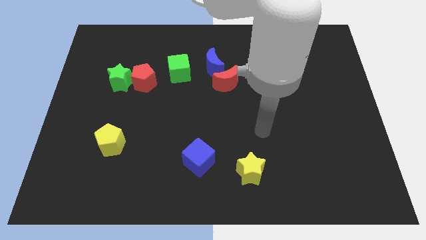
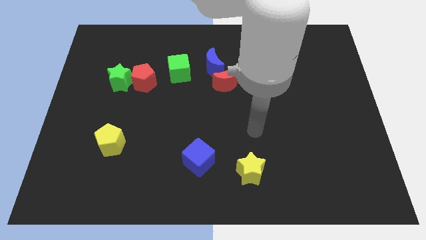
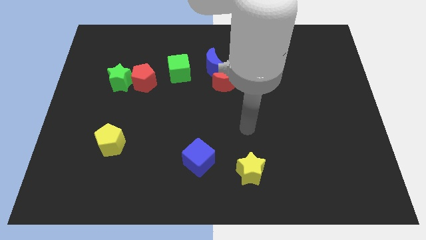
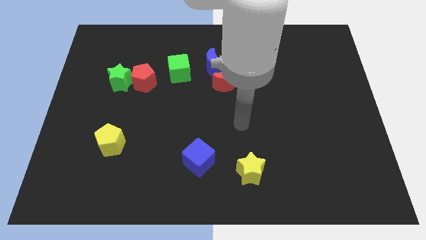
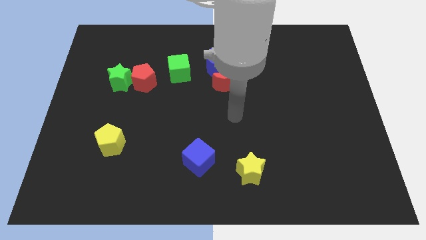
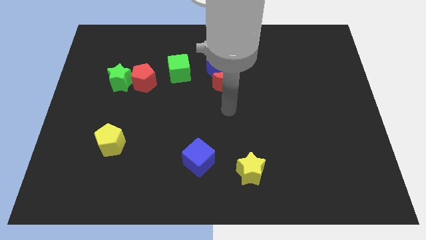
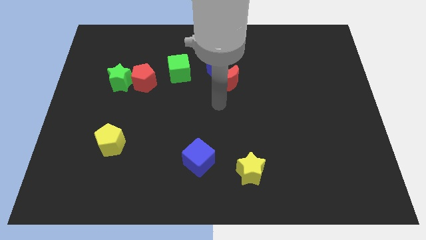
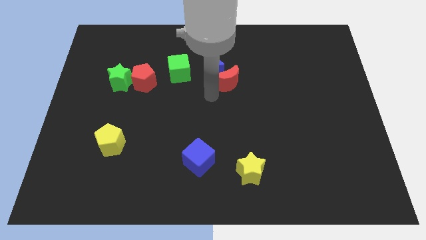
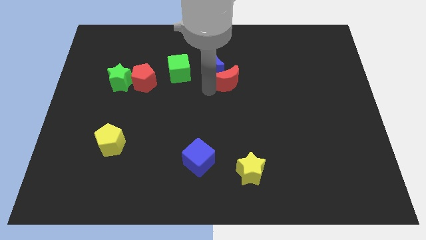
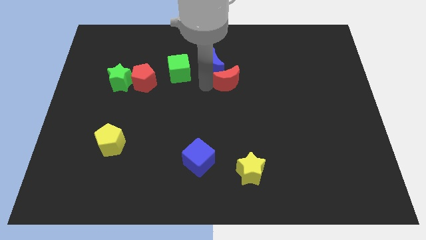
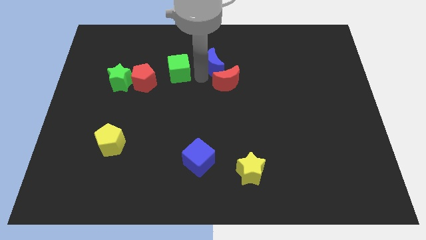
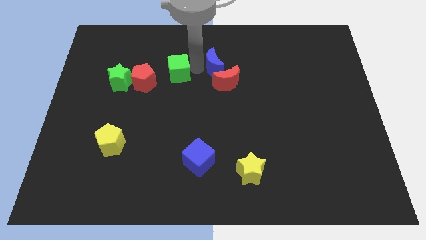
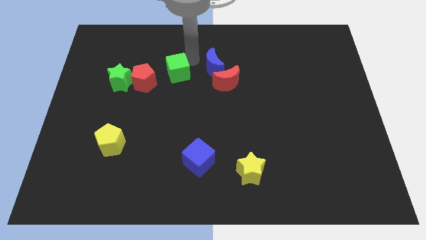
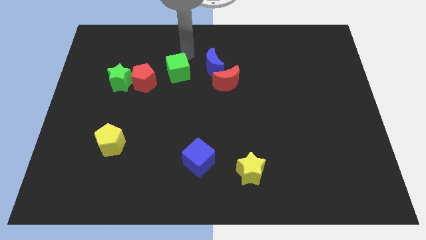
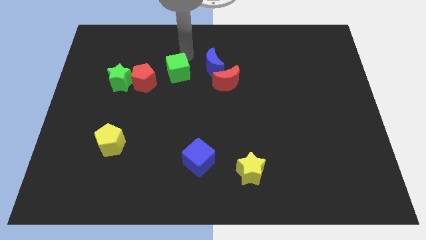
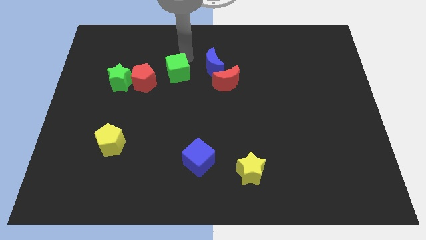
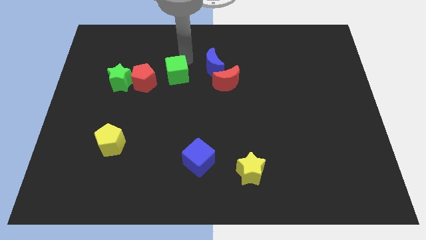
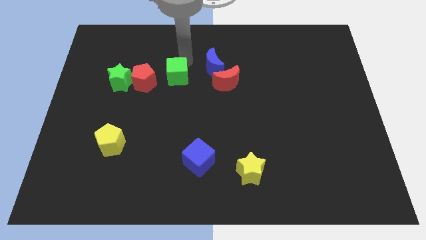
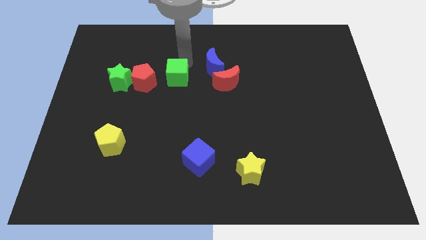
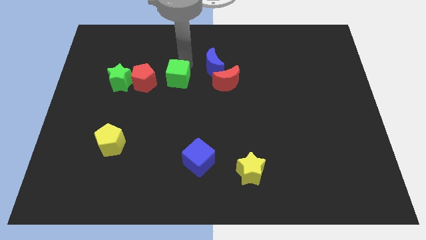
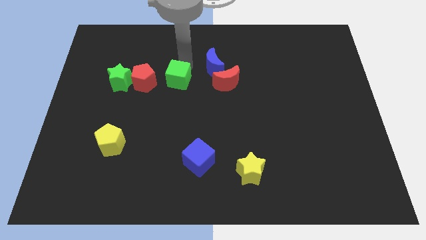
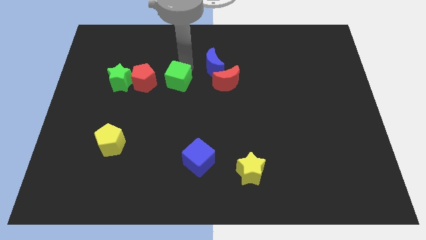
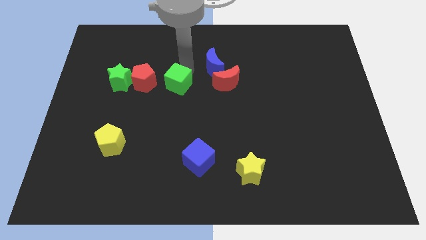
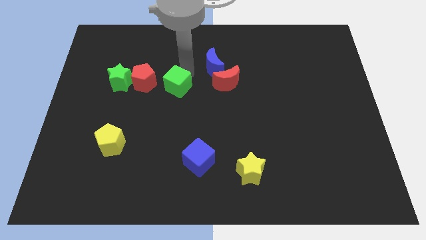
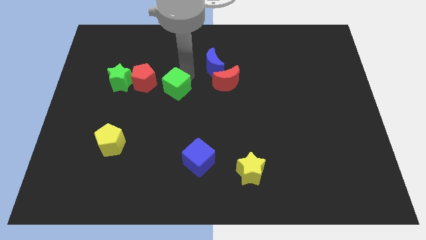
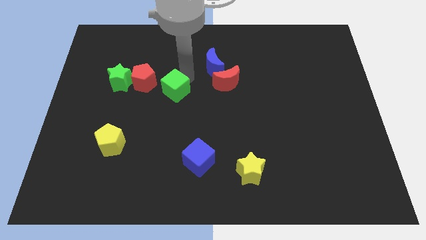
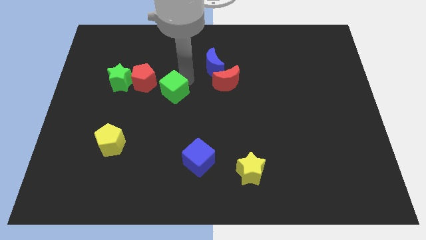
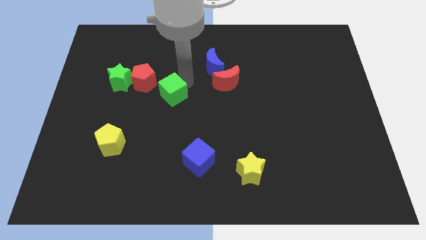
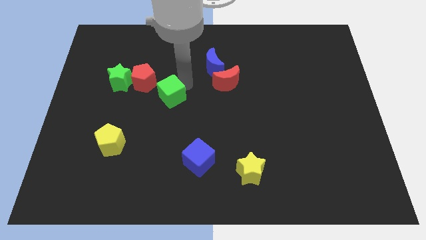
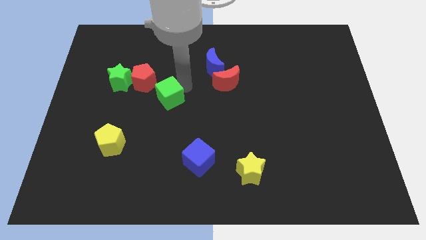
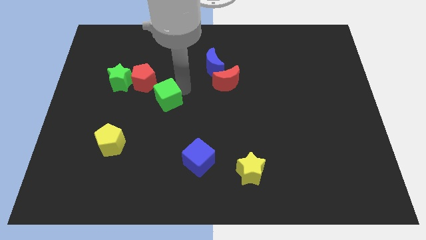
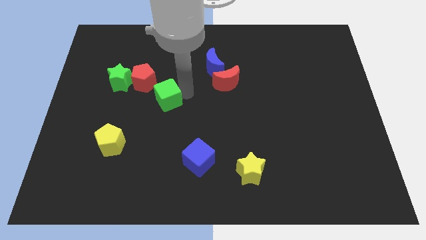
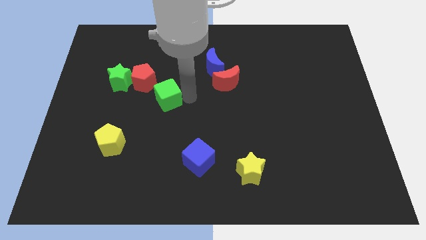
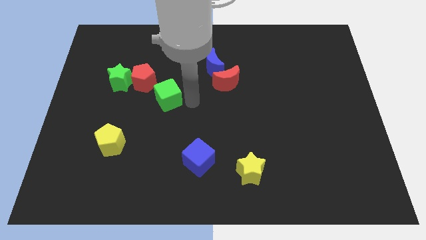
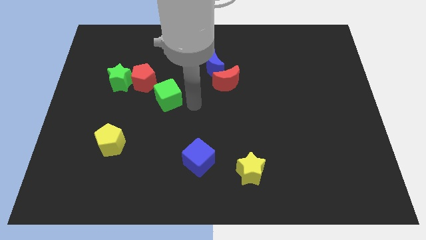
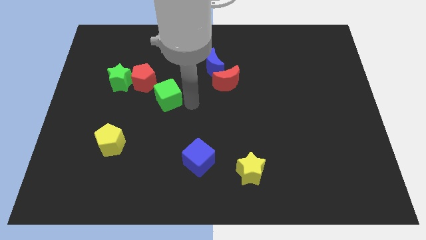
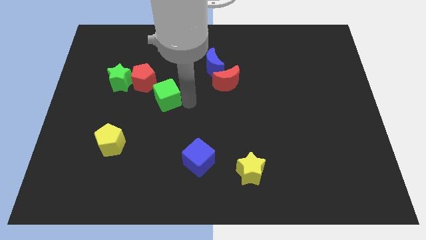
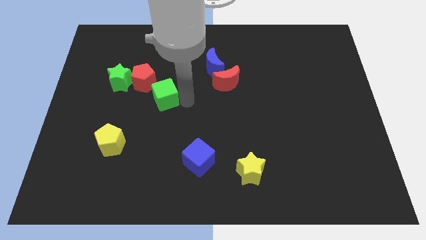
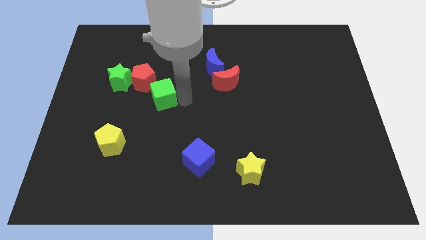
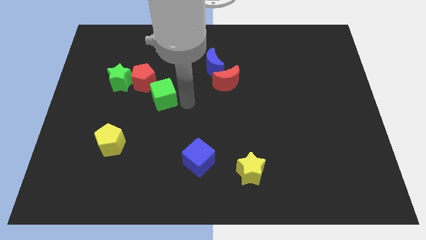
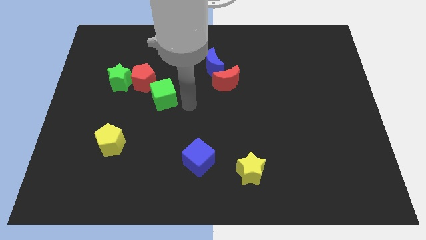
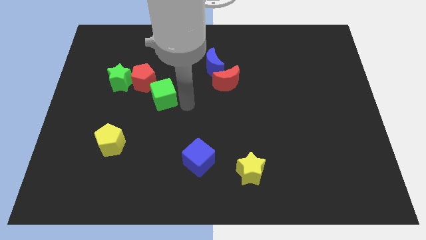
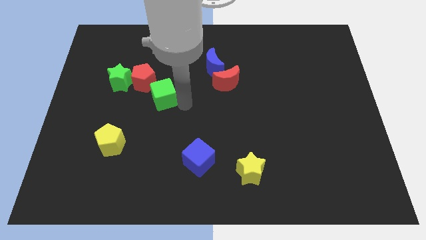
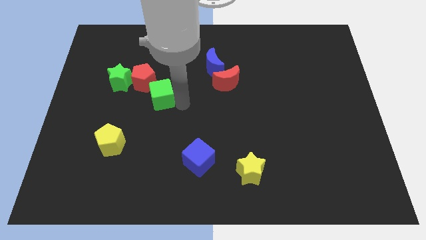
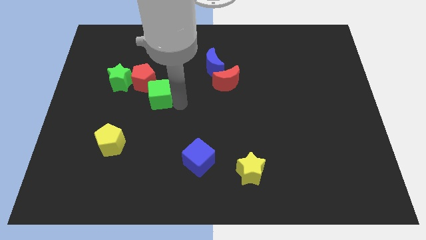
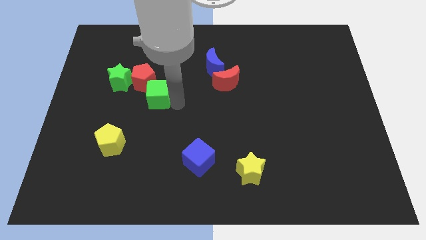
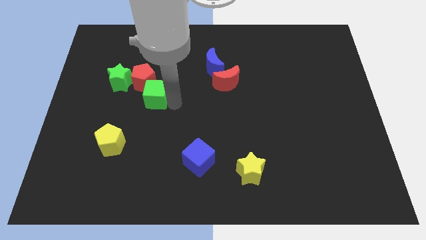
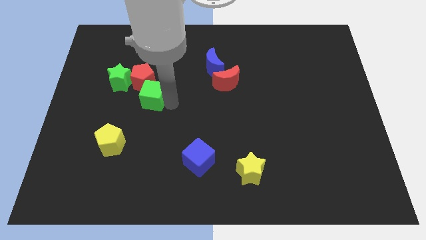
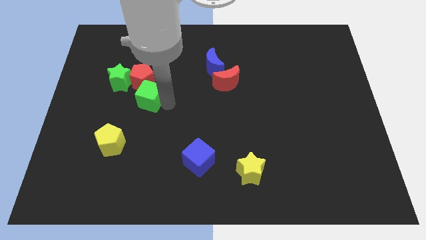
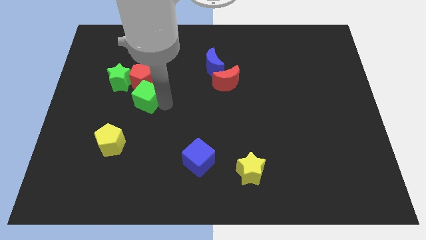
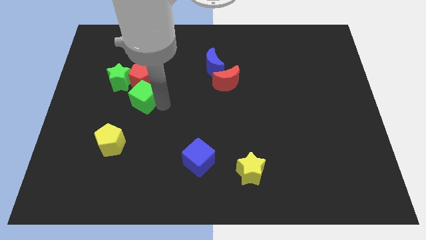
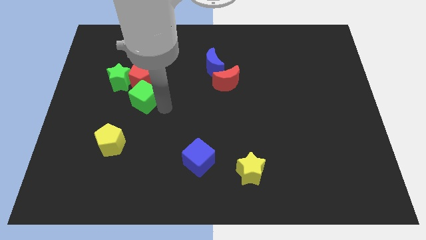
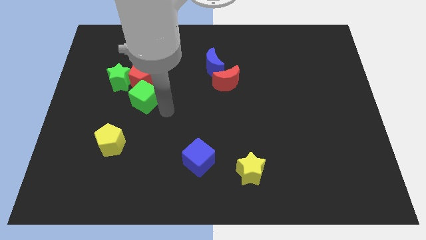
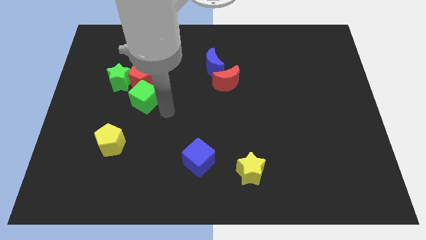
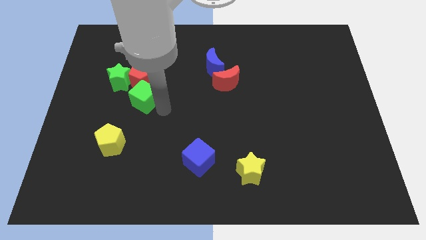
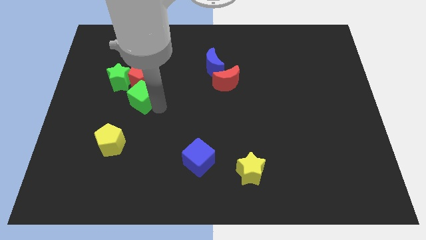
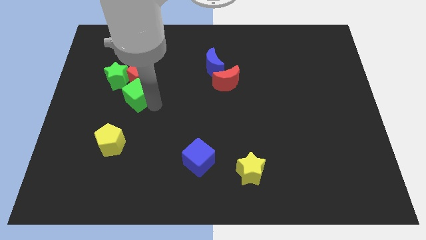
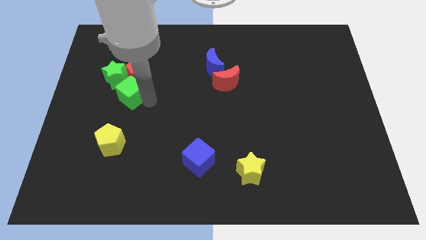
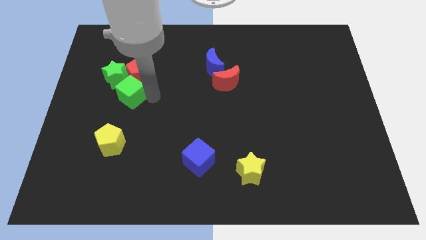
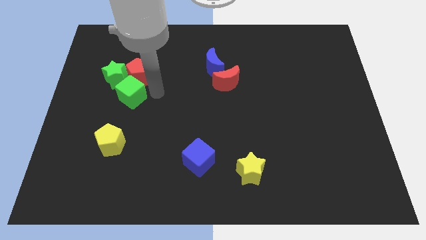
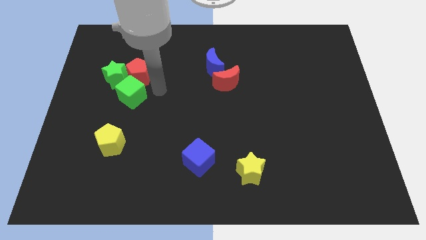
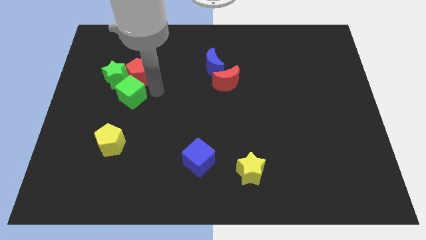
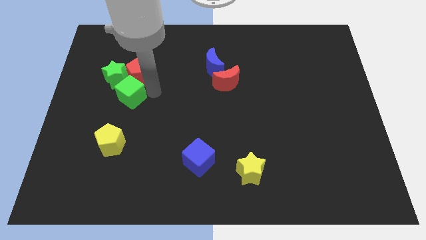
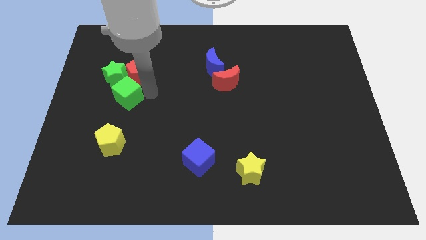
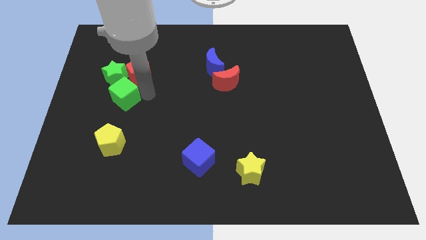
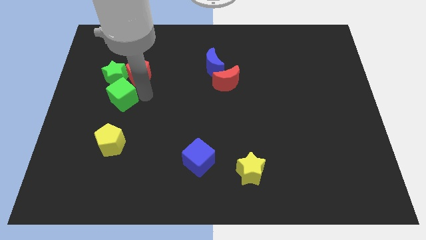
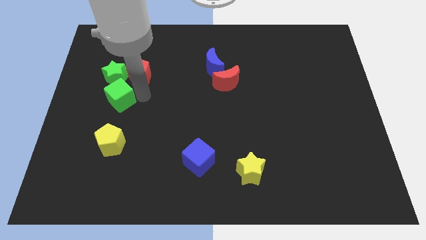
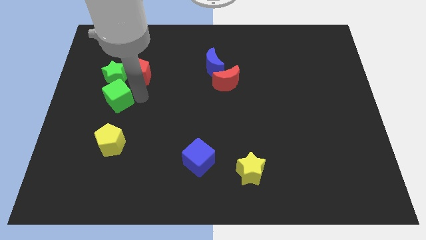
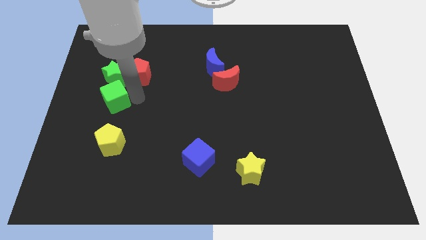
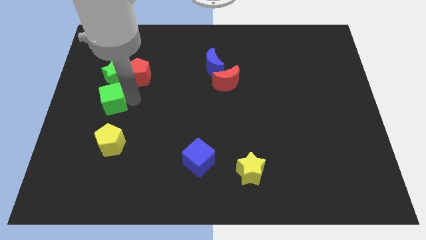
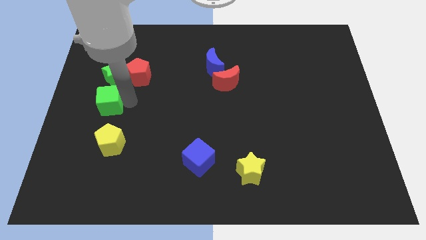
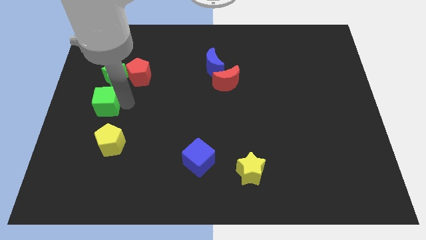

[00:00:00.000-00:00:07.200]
slide the green cube to the left side
